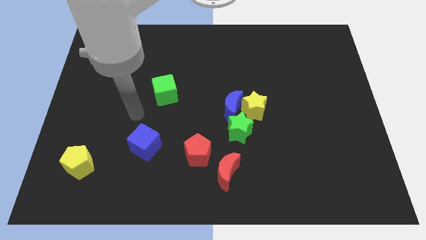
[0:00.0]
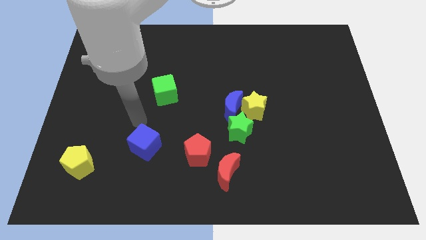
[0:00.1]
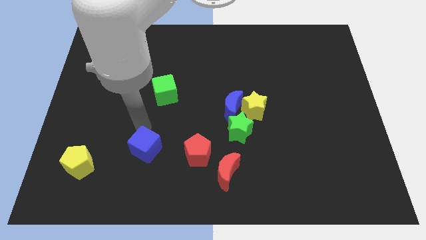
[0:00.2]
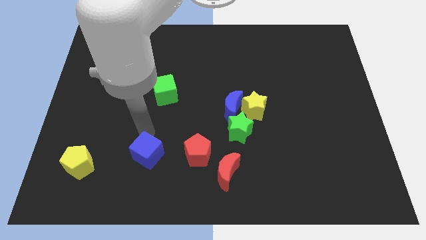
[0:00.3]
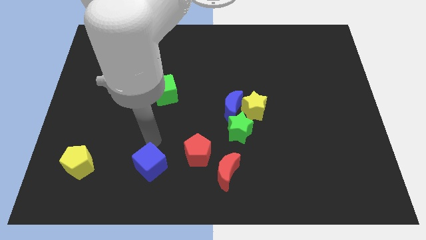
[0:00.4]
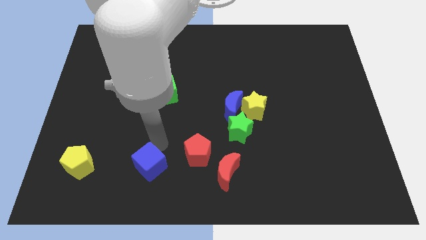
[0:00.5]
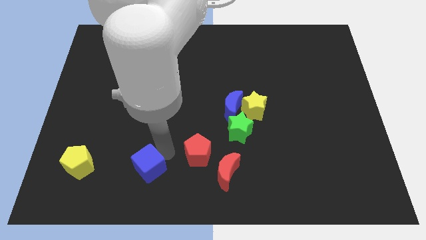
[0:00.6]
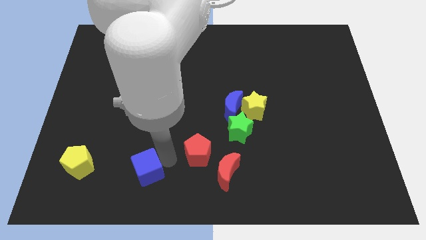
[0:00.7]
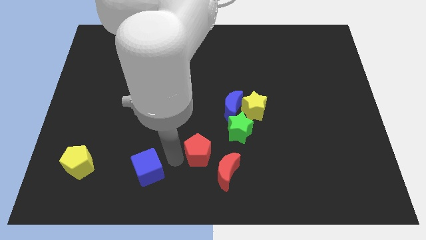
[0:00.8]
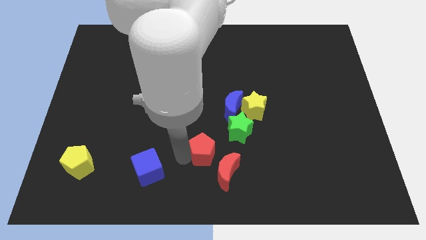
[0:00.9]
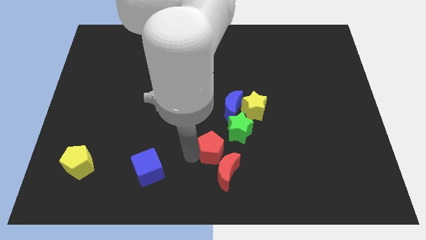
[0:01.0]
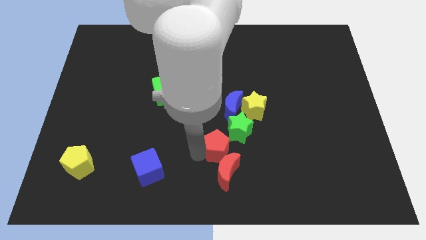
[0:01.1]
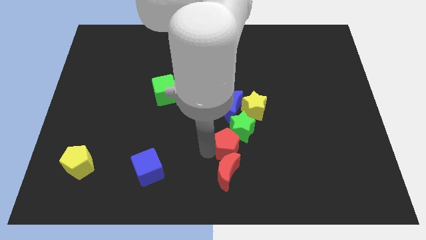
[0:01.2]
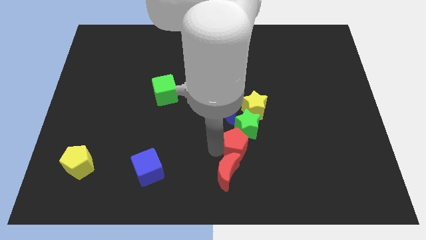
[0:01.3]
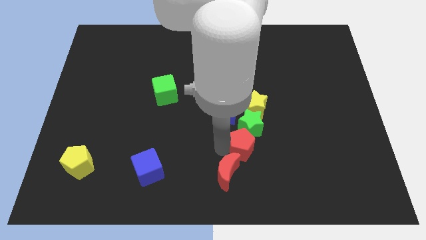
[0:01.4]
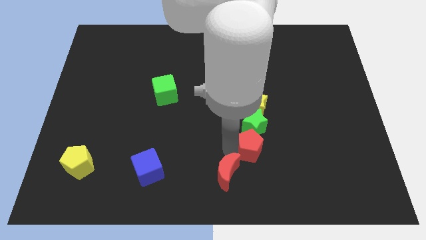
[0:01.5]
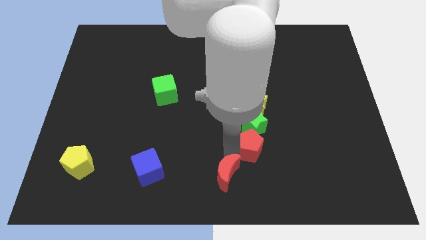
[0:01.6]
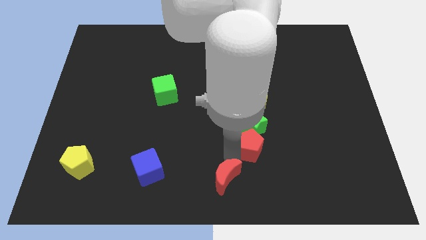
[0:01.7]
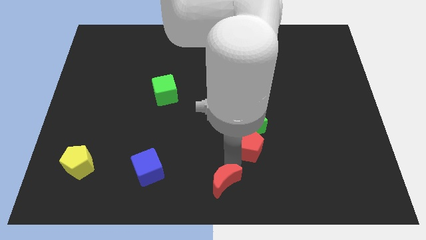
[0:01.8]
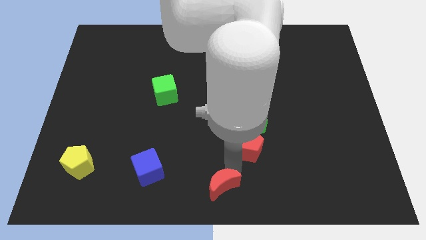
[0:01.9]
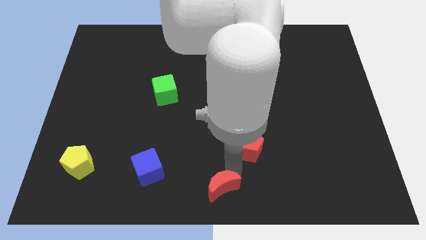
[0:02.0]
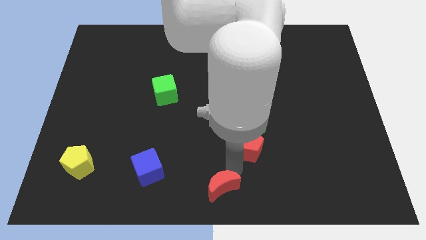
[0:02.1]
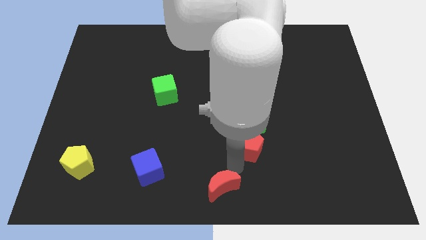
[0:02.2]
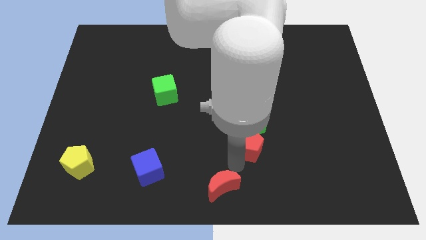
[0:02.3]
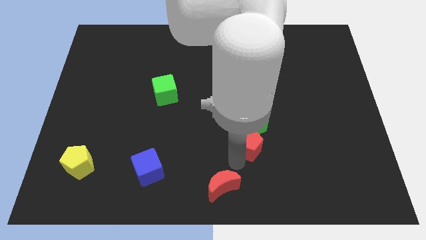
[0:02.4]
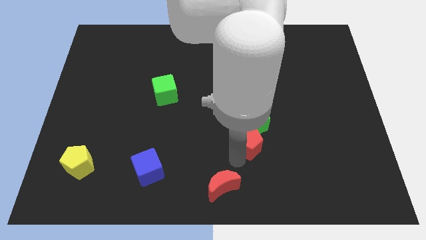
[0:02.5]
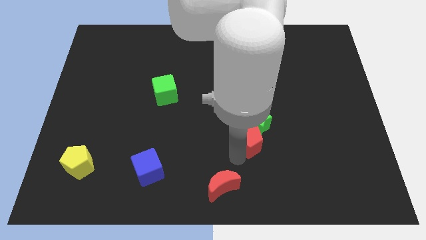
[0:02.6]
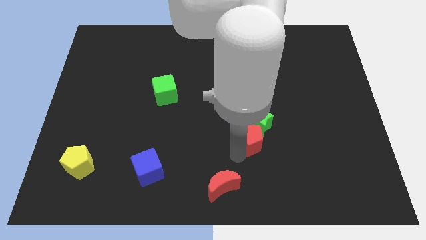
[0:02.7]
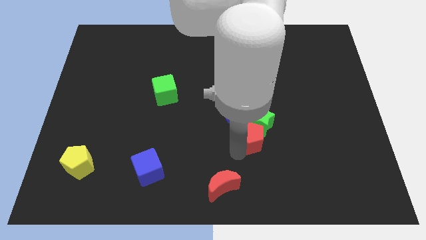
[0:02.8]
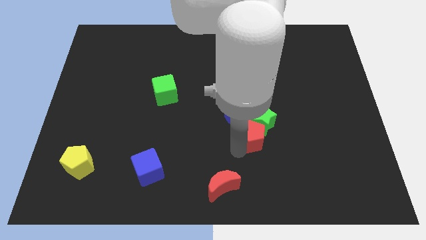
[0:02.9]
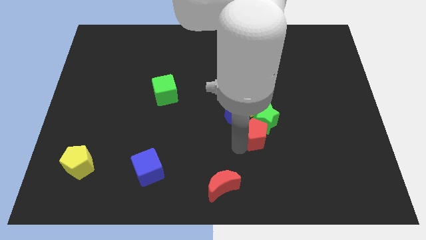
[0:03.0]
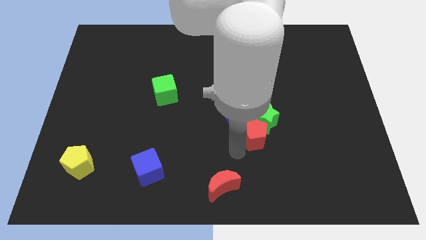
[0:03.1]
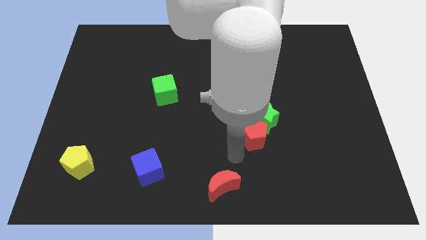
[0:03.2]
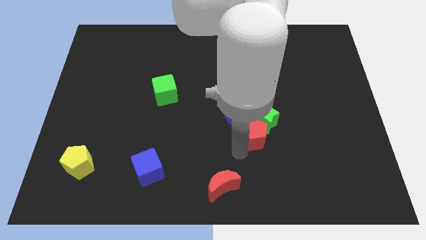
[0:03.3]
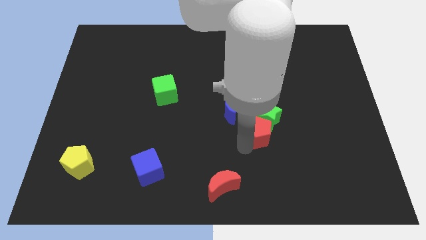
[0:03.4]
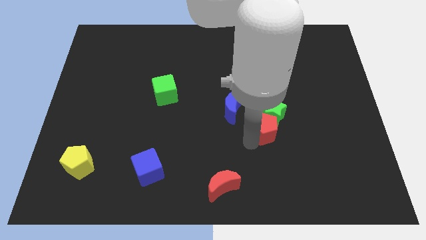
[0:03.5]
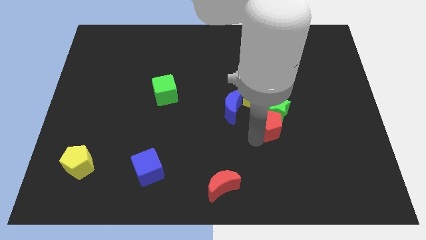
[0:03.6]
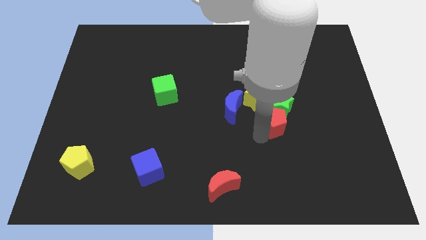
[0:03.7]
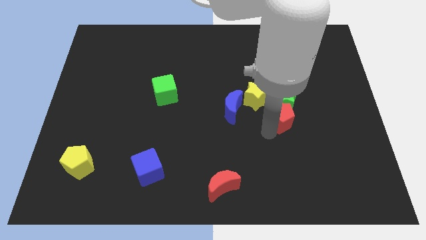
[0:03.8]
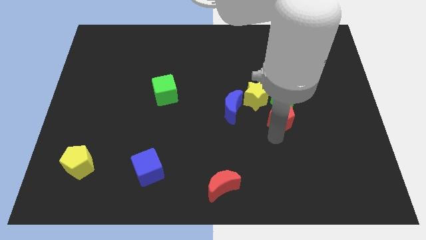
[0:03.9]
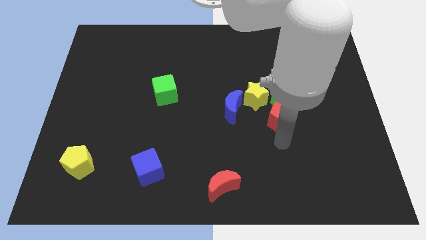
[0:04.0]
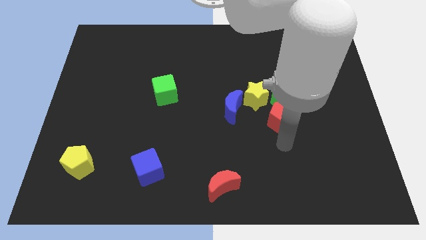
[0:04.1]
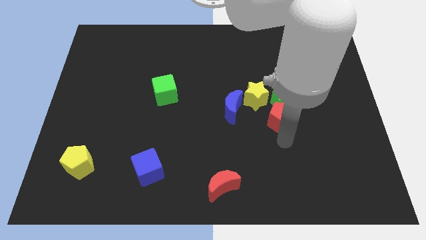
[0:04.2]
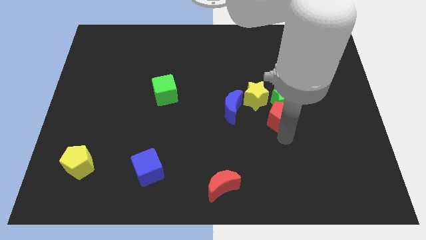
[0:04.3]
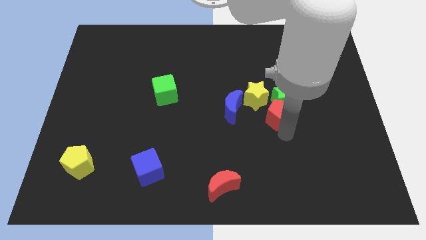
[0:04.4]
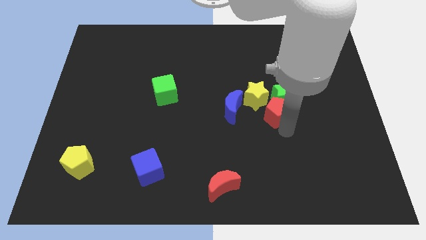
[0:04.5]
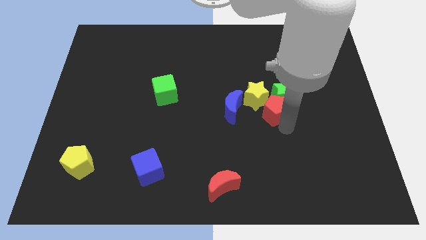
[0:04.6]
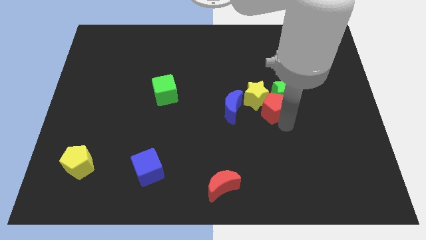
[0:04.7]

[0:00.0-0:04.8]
slide the red pentagon up and then right

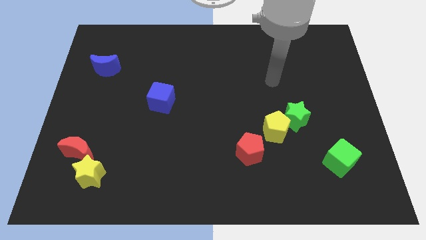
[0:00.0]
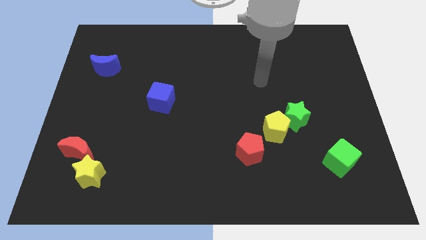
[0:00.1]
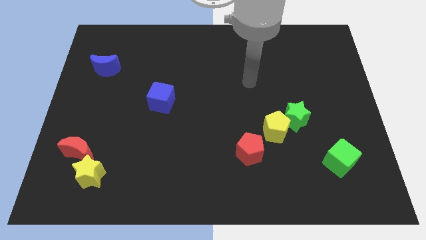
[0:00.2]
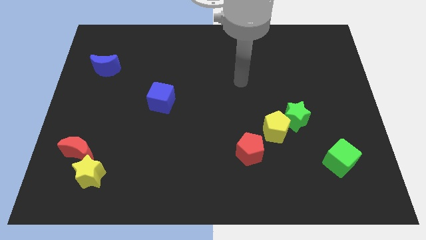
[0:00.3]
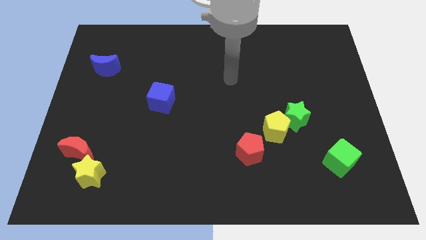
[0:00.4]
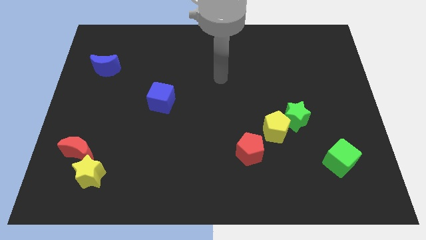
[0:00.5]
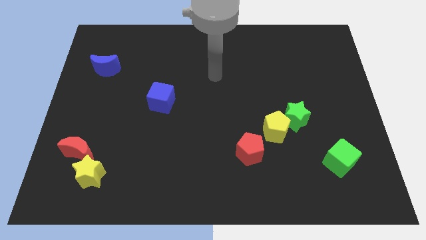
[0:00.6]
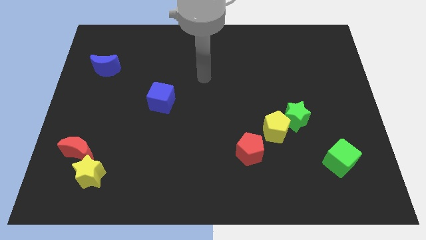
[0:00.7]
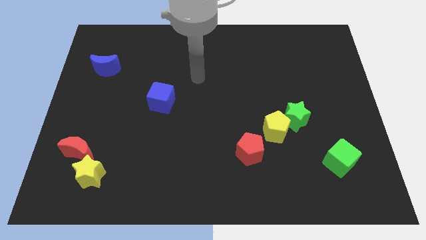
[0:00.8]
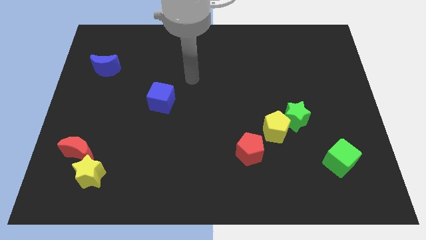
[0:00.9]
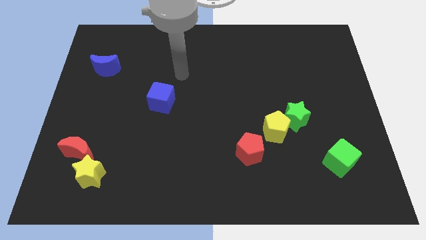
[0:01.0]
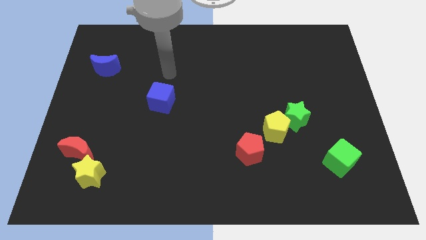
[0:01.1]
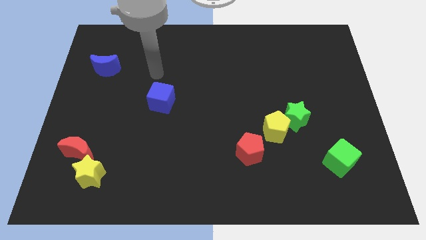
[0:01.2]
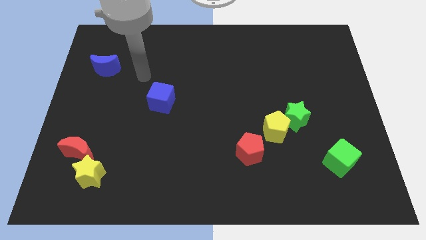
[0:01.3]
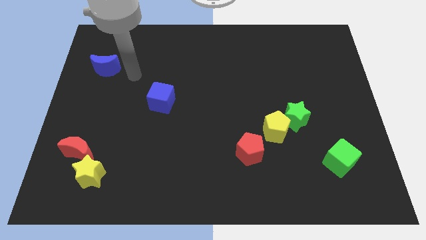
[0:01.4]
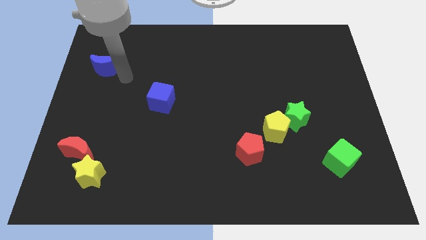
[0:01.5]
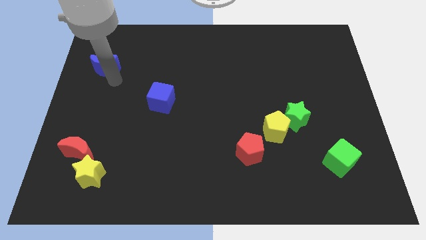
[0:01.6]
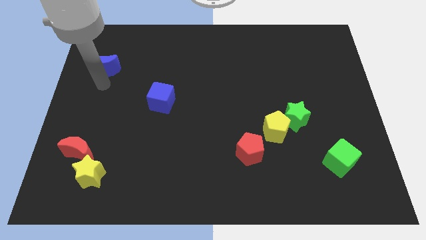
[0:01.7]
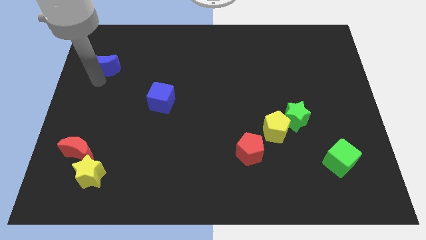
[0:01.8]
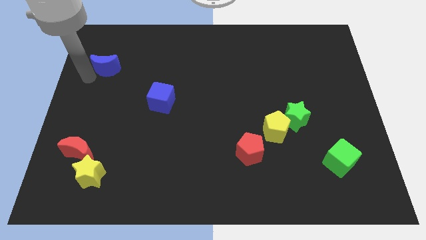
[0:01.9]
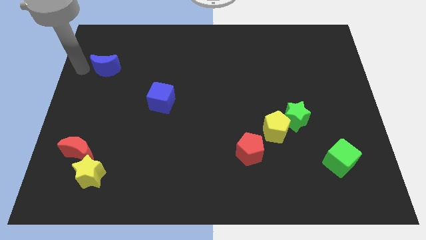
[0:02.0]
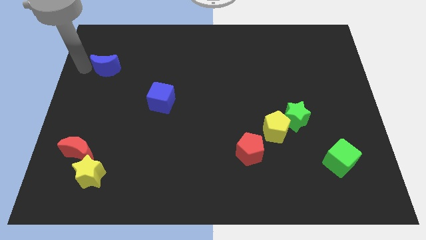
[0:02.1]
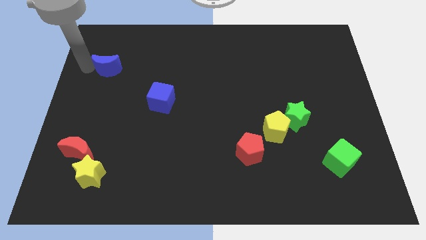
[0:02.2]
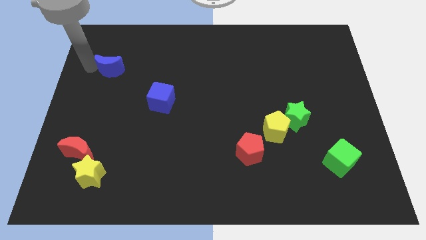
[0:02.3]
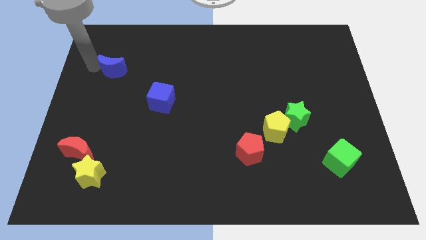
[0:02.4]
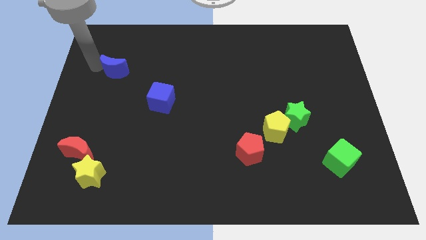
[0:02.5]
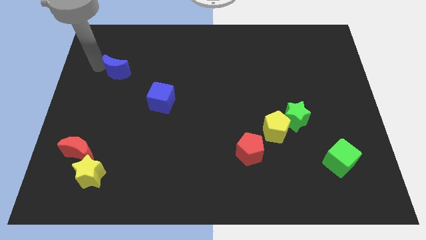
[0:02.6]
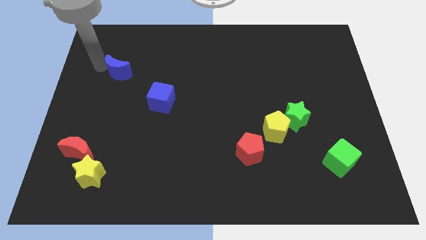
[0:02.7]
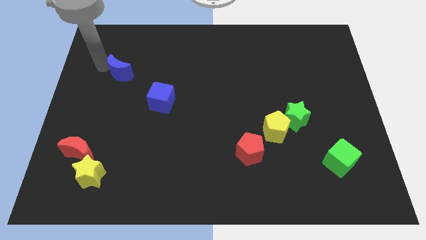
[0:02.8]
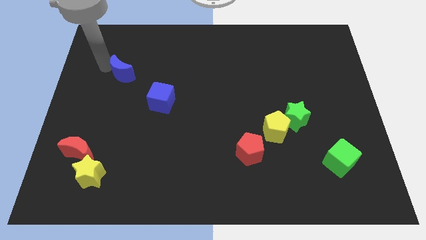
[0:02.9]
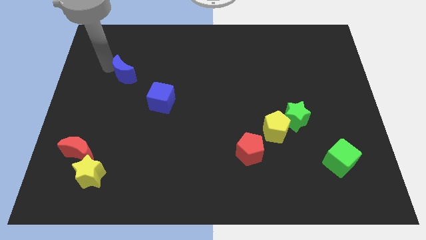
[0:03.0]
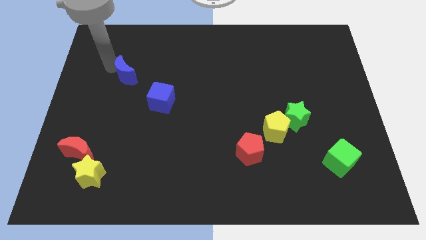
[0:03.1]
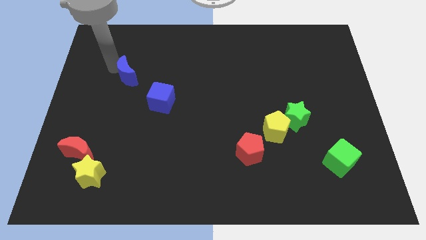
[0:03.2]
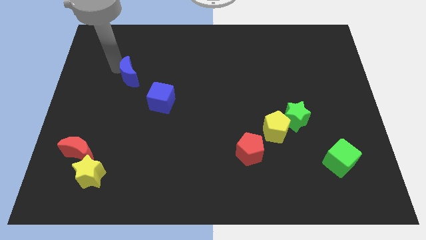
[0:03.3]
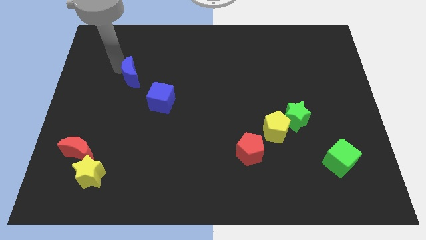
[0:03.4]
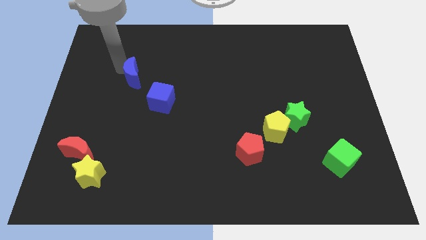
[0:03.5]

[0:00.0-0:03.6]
push the blue moon to the right slightly
